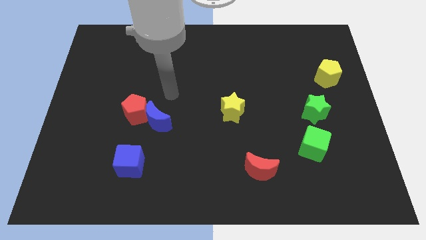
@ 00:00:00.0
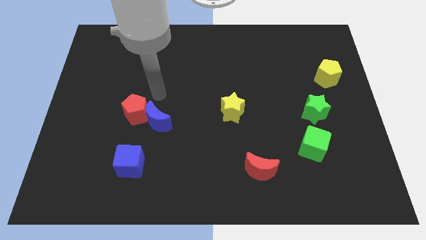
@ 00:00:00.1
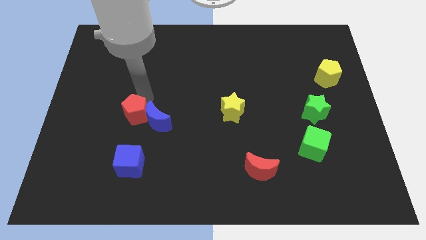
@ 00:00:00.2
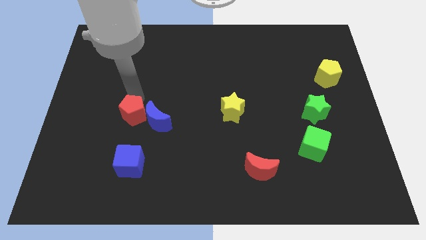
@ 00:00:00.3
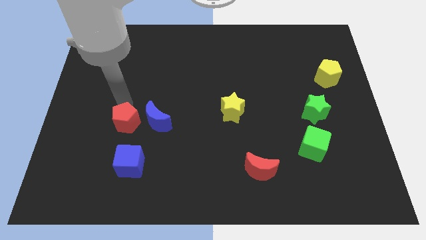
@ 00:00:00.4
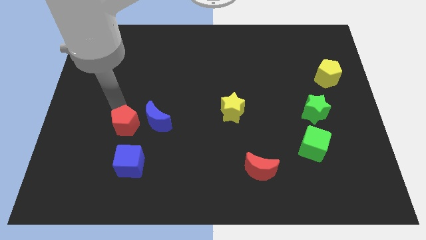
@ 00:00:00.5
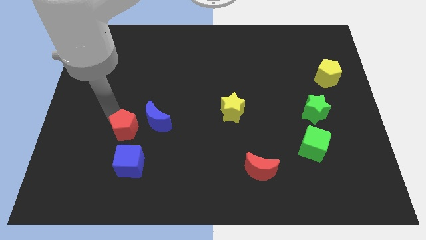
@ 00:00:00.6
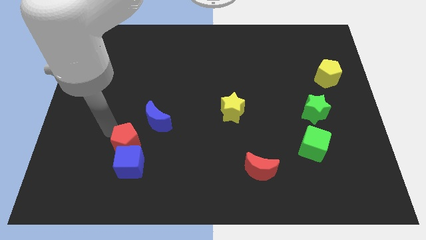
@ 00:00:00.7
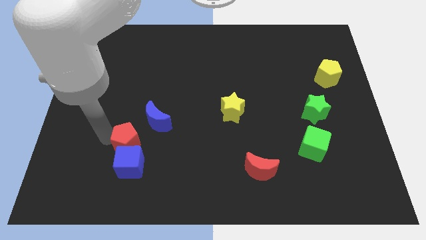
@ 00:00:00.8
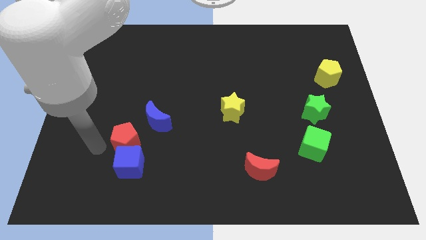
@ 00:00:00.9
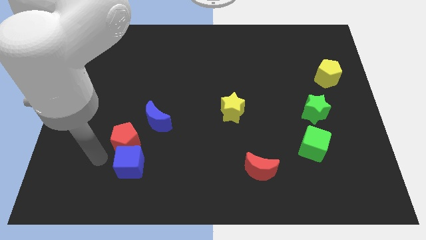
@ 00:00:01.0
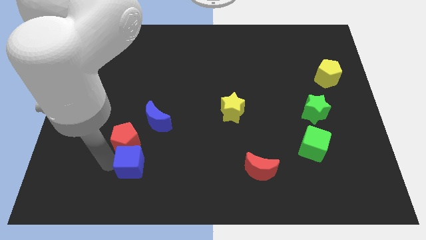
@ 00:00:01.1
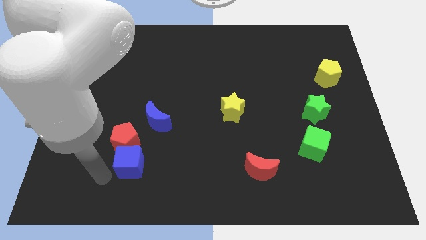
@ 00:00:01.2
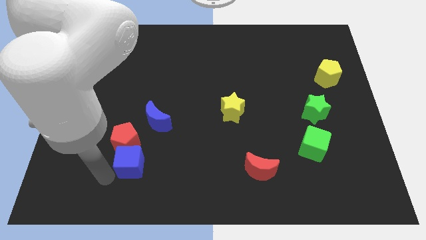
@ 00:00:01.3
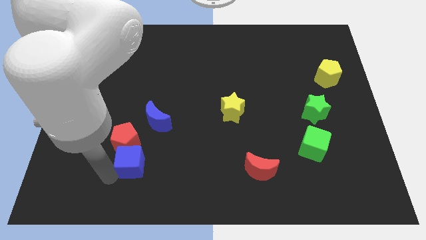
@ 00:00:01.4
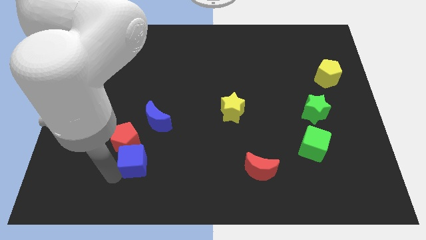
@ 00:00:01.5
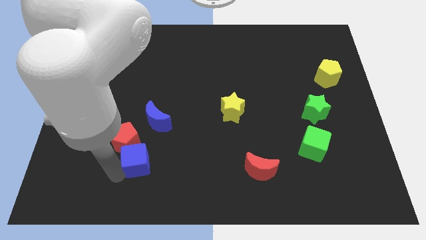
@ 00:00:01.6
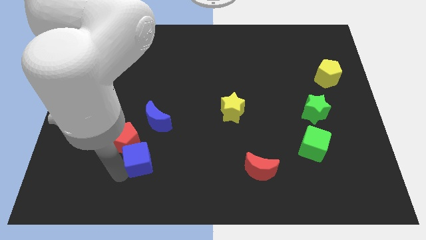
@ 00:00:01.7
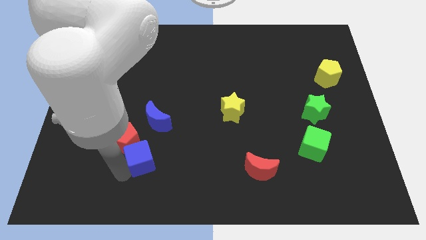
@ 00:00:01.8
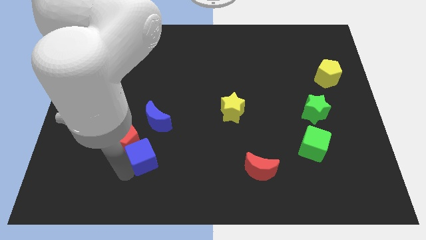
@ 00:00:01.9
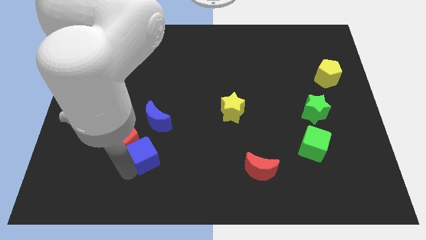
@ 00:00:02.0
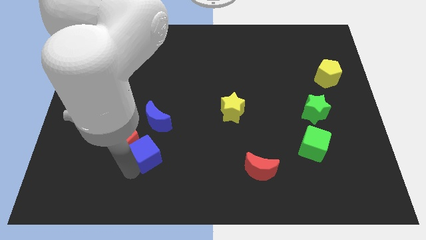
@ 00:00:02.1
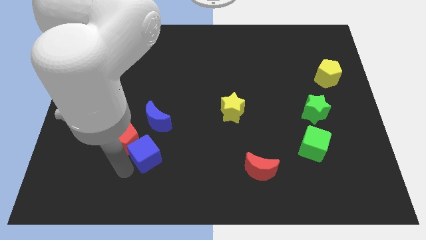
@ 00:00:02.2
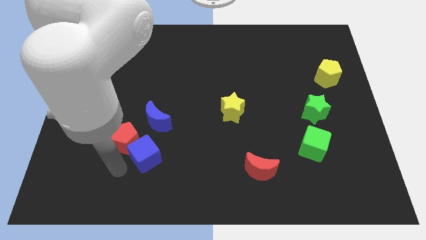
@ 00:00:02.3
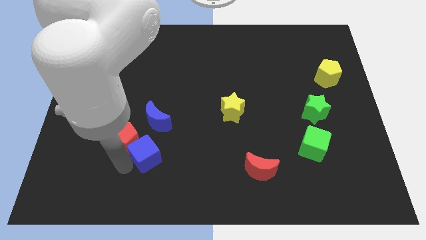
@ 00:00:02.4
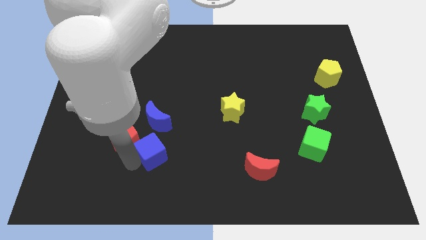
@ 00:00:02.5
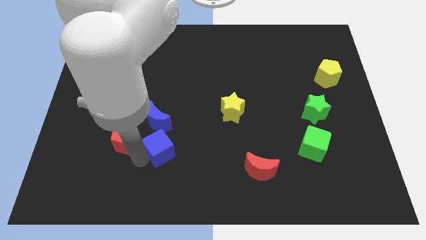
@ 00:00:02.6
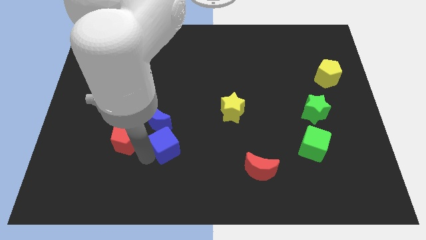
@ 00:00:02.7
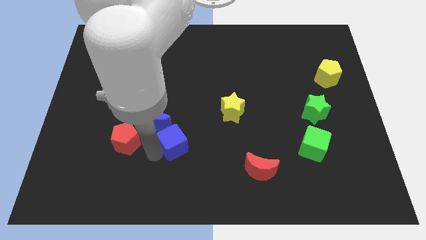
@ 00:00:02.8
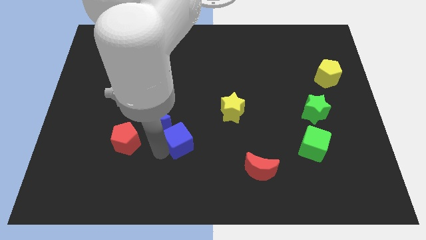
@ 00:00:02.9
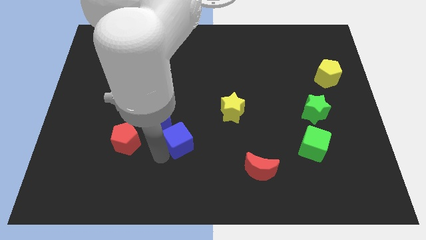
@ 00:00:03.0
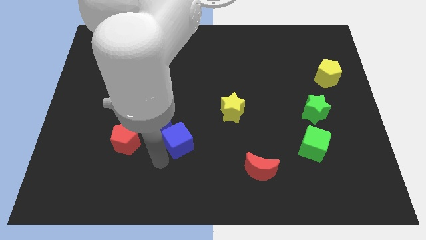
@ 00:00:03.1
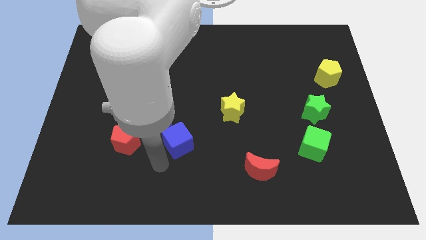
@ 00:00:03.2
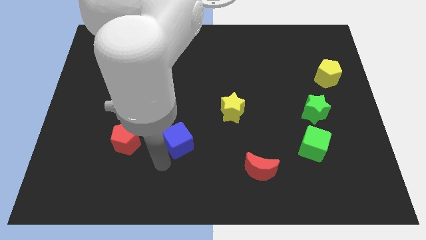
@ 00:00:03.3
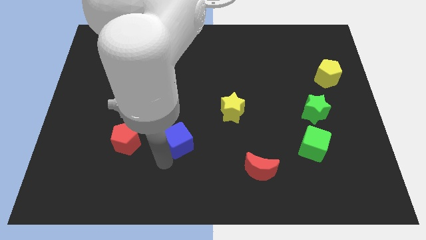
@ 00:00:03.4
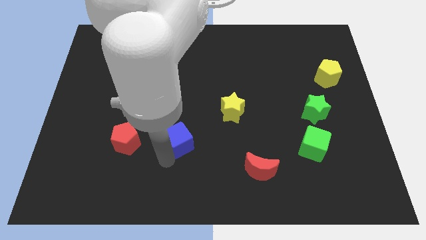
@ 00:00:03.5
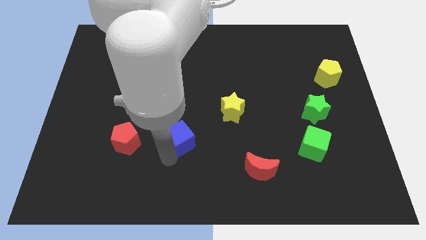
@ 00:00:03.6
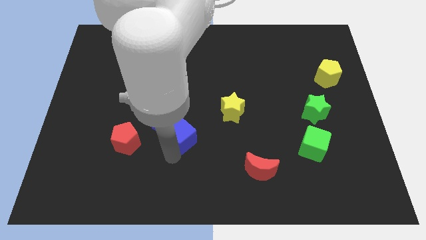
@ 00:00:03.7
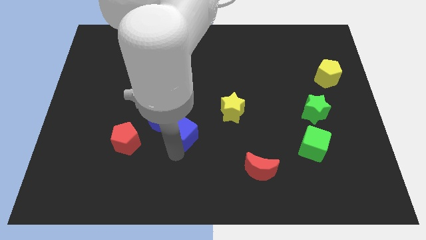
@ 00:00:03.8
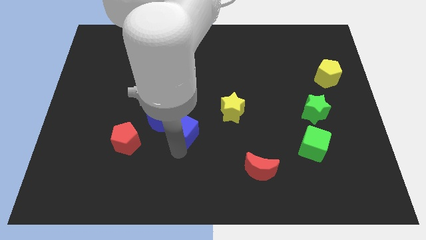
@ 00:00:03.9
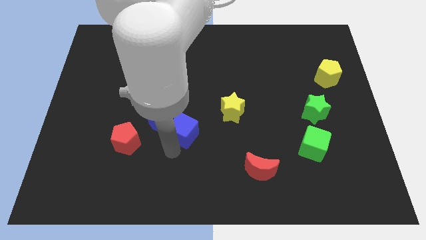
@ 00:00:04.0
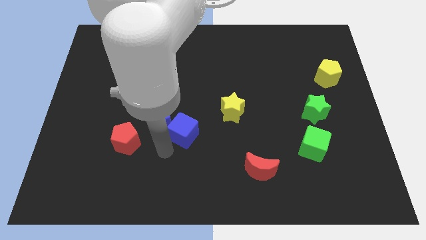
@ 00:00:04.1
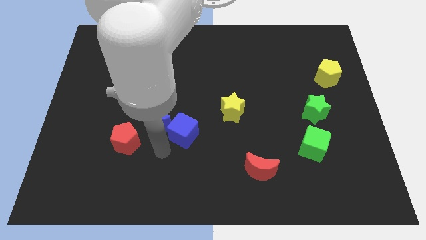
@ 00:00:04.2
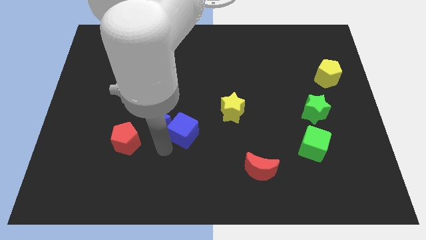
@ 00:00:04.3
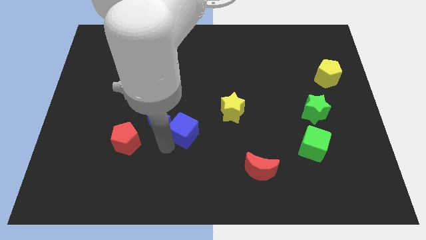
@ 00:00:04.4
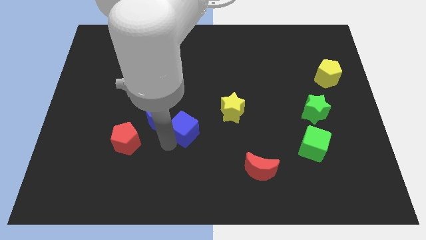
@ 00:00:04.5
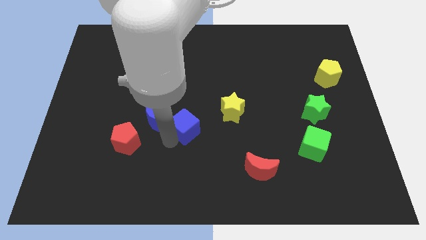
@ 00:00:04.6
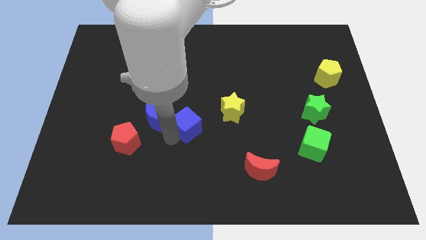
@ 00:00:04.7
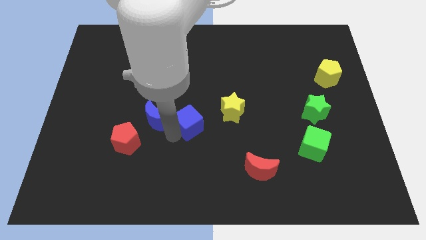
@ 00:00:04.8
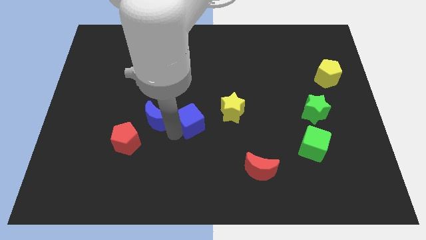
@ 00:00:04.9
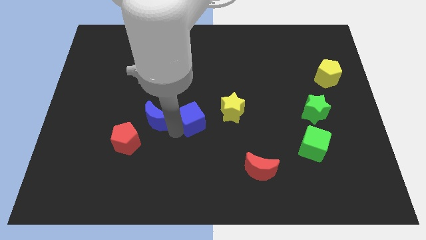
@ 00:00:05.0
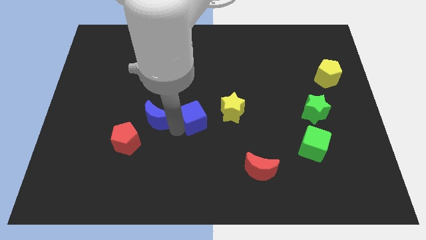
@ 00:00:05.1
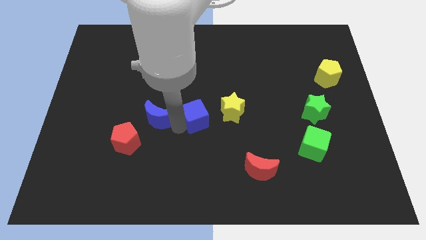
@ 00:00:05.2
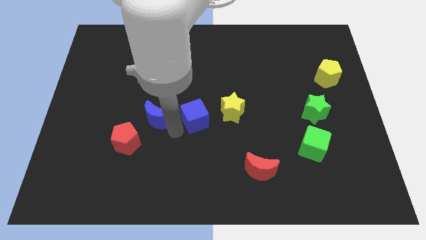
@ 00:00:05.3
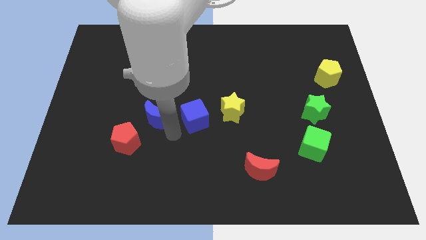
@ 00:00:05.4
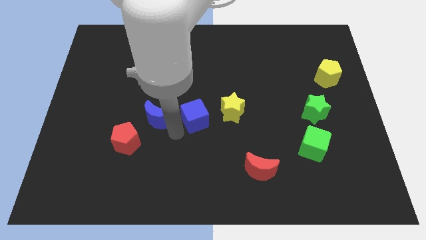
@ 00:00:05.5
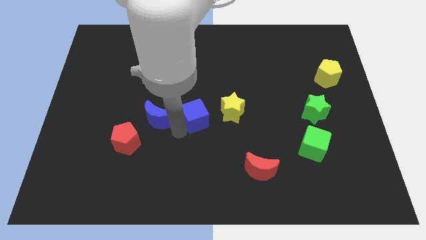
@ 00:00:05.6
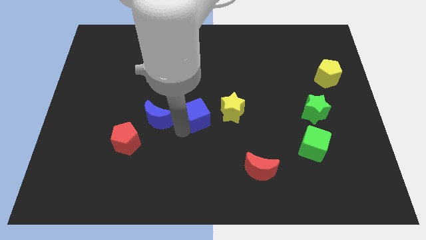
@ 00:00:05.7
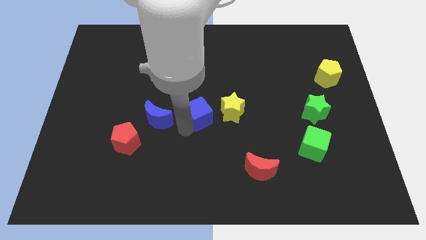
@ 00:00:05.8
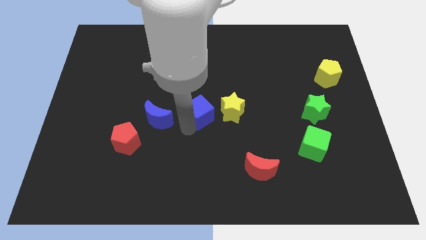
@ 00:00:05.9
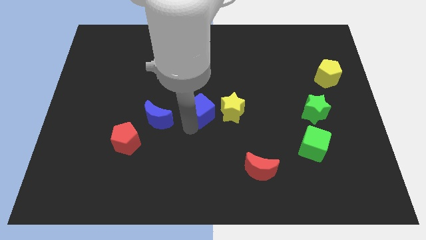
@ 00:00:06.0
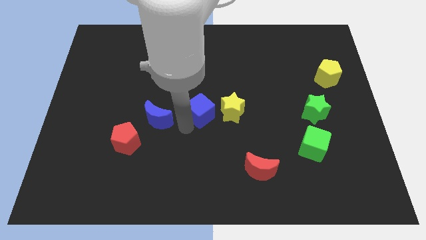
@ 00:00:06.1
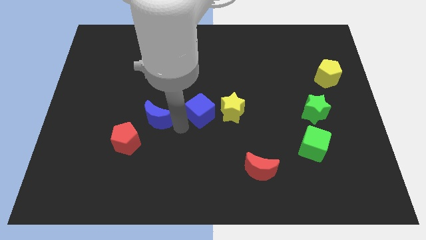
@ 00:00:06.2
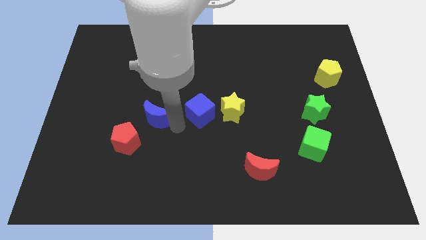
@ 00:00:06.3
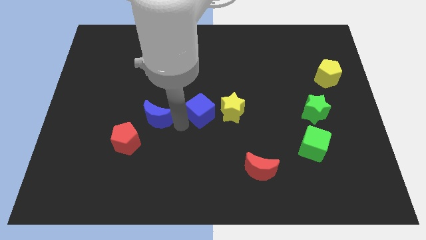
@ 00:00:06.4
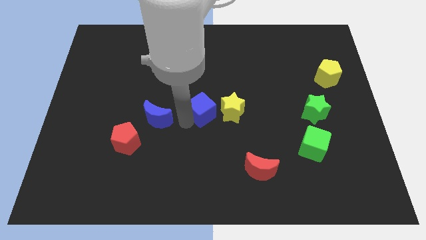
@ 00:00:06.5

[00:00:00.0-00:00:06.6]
move the blue cube upwards and to the right

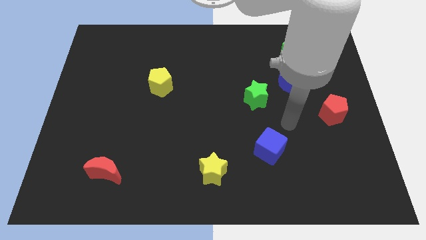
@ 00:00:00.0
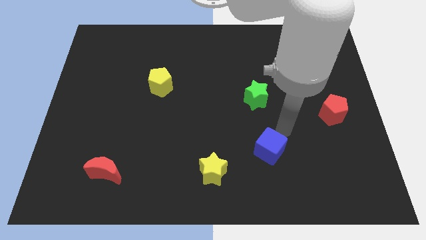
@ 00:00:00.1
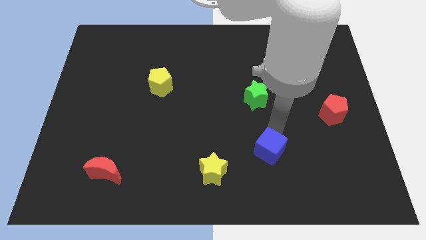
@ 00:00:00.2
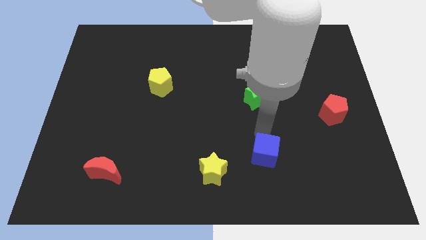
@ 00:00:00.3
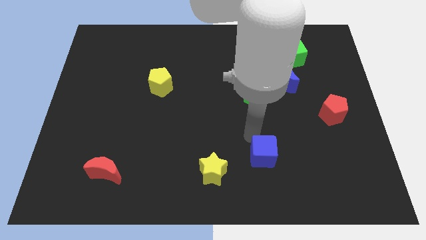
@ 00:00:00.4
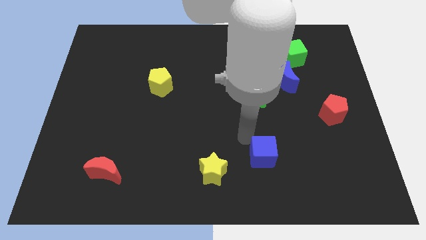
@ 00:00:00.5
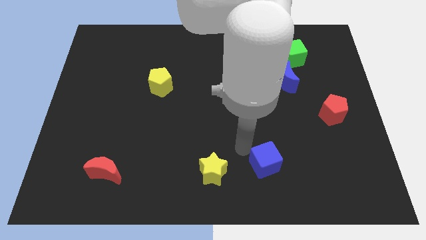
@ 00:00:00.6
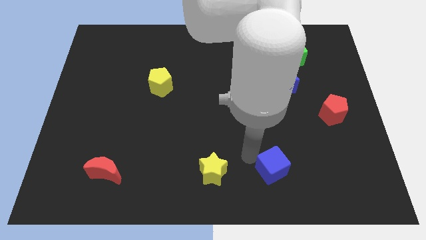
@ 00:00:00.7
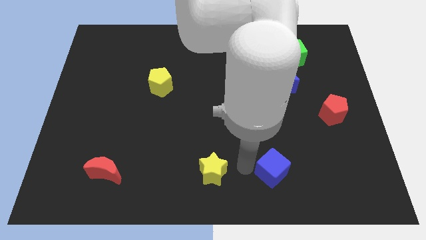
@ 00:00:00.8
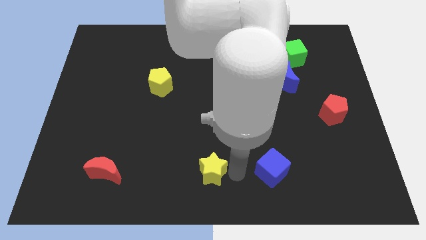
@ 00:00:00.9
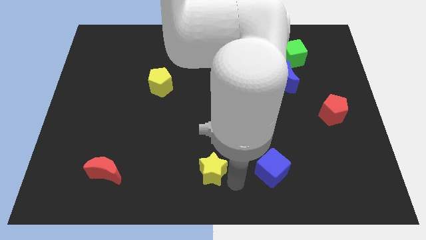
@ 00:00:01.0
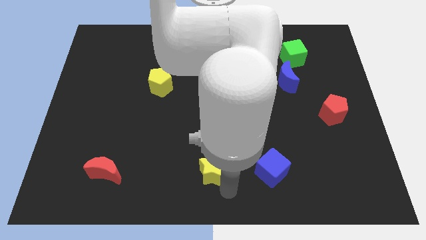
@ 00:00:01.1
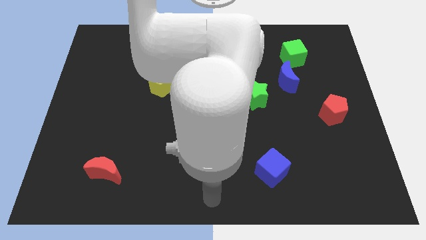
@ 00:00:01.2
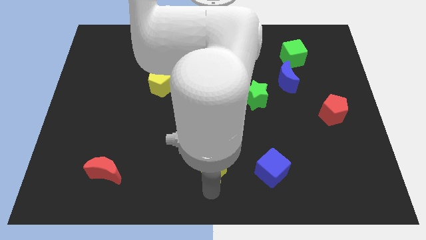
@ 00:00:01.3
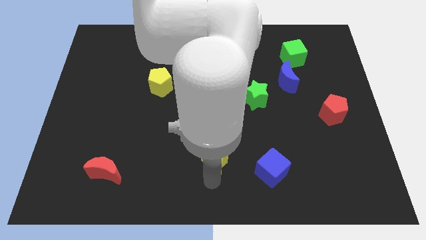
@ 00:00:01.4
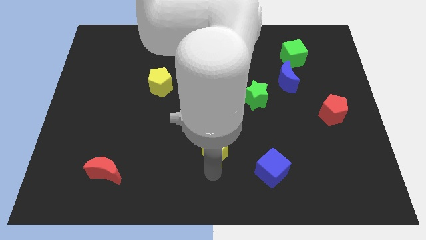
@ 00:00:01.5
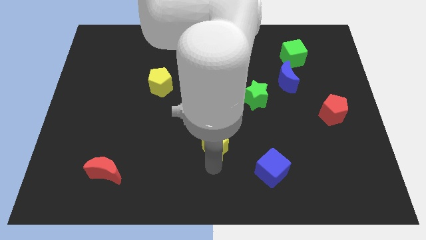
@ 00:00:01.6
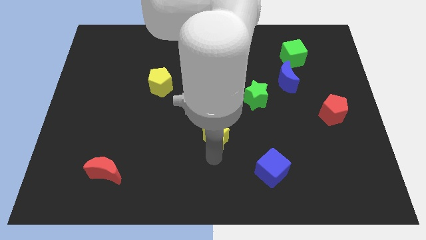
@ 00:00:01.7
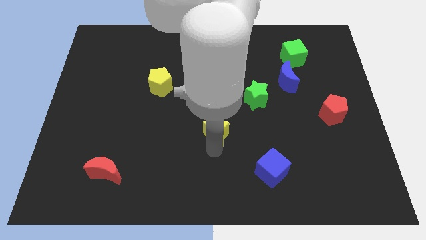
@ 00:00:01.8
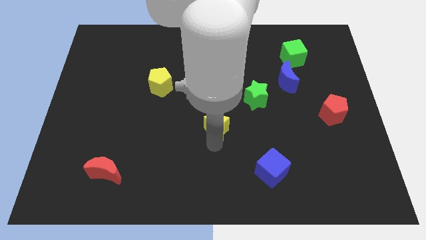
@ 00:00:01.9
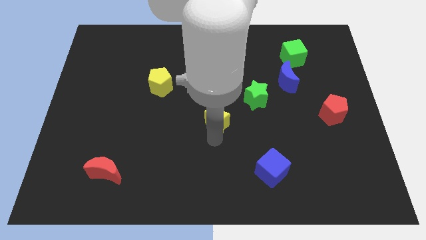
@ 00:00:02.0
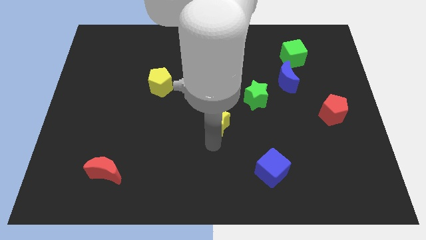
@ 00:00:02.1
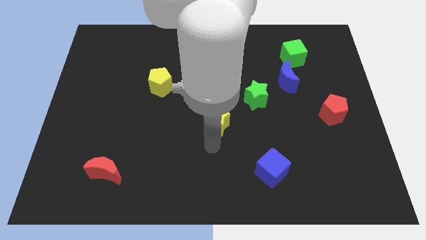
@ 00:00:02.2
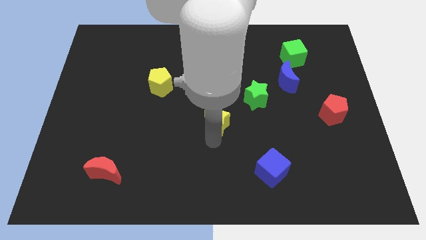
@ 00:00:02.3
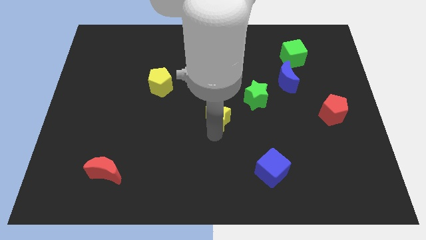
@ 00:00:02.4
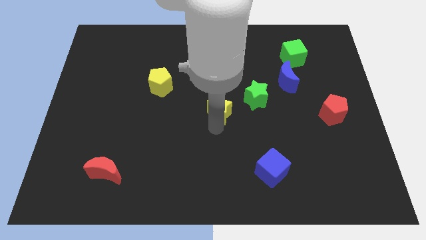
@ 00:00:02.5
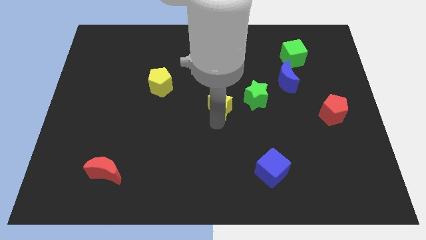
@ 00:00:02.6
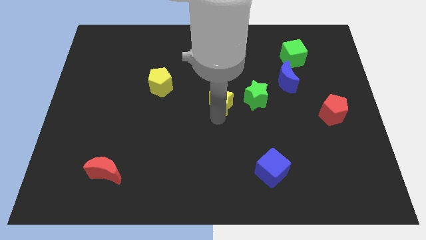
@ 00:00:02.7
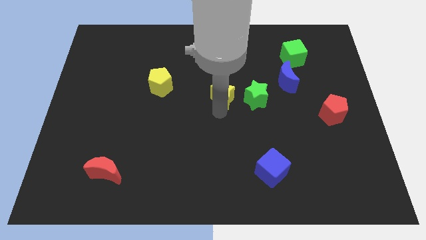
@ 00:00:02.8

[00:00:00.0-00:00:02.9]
slide the yellow star upwards
